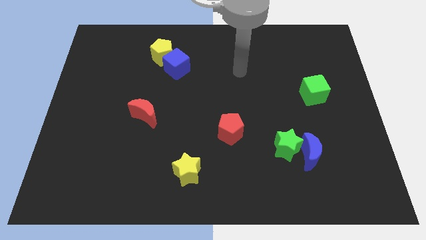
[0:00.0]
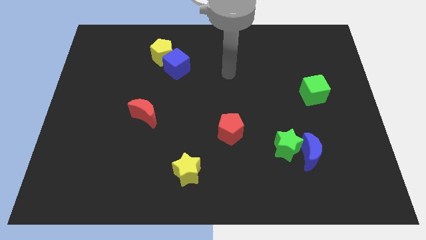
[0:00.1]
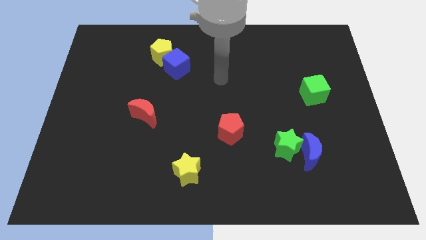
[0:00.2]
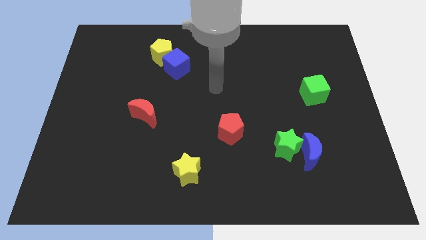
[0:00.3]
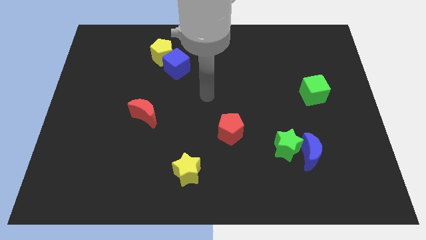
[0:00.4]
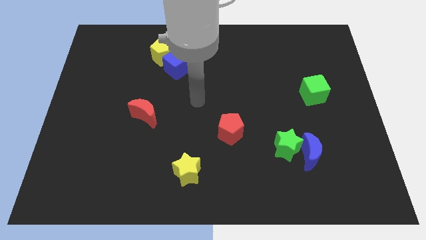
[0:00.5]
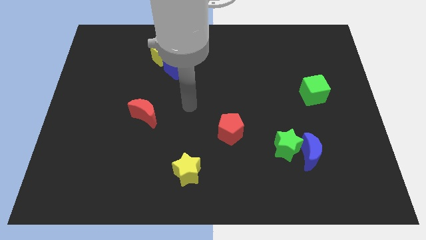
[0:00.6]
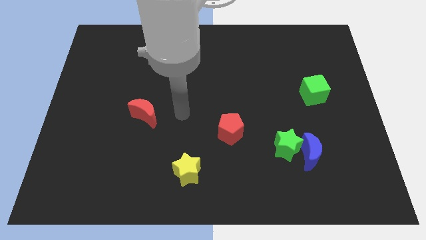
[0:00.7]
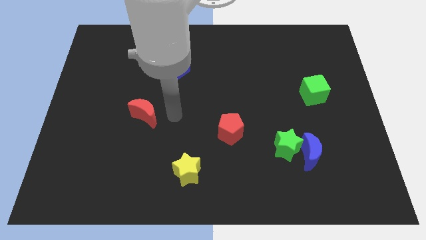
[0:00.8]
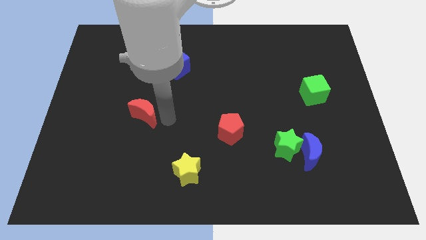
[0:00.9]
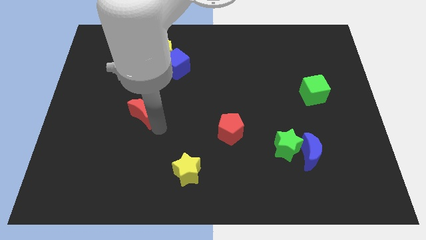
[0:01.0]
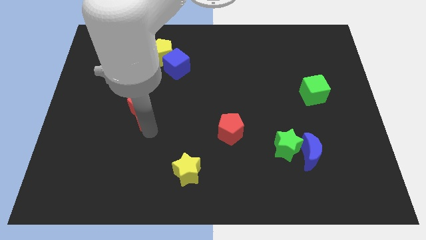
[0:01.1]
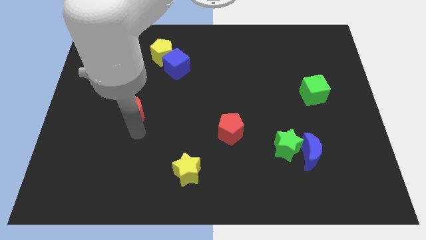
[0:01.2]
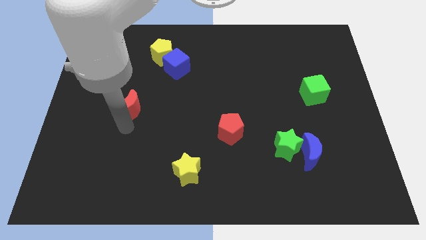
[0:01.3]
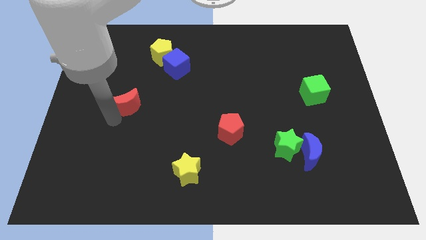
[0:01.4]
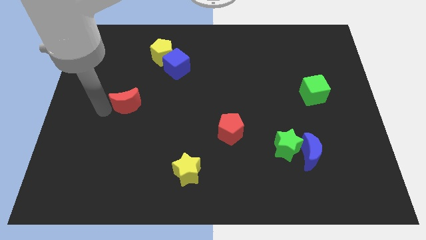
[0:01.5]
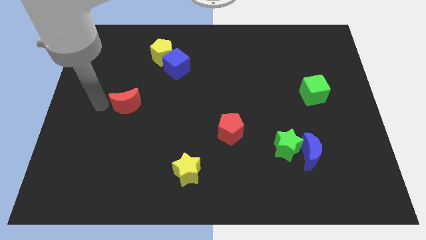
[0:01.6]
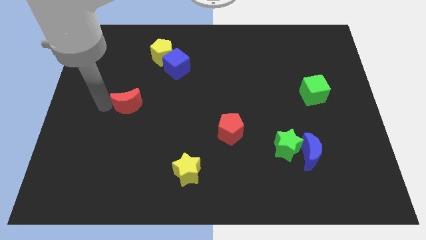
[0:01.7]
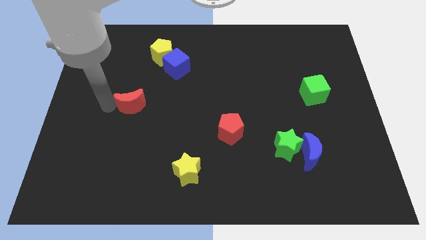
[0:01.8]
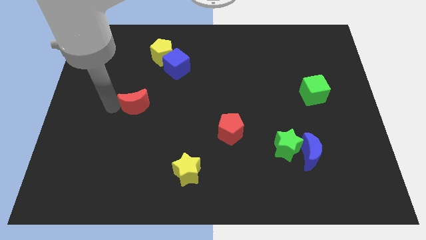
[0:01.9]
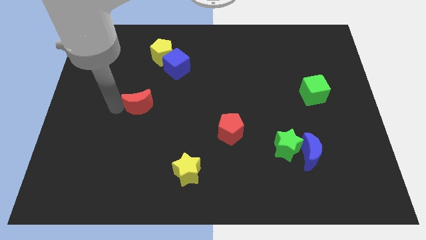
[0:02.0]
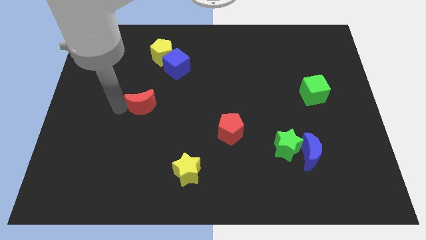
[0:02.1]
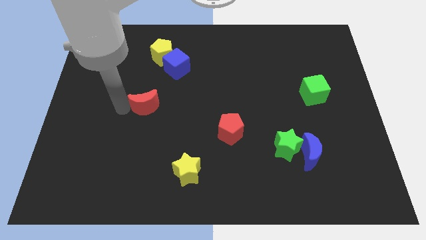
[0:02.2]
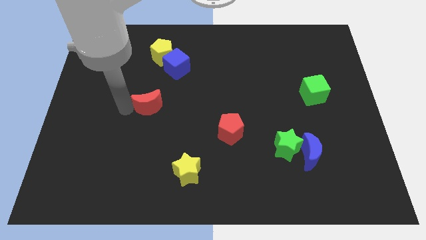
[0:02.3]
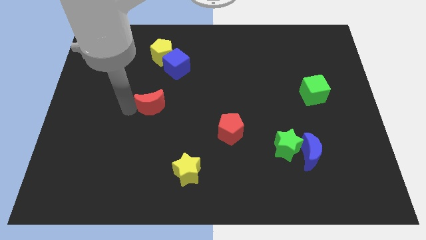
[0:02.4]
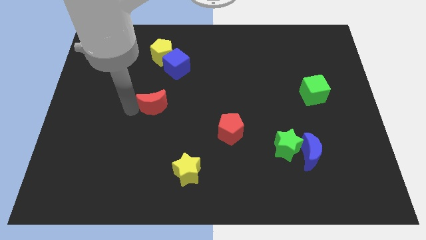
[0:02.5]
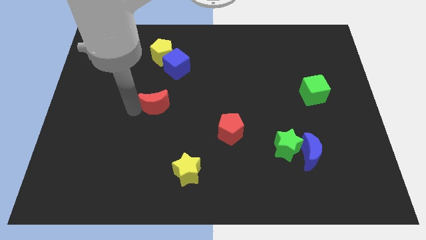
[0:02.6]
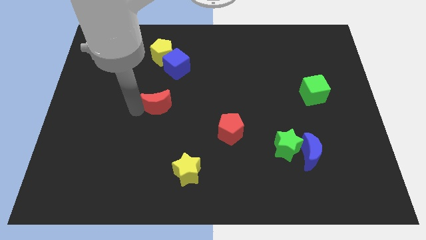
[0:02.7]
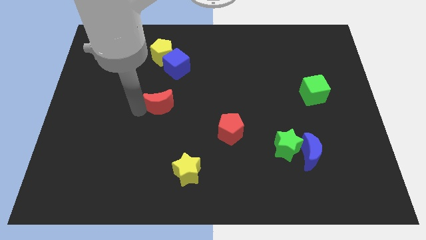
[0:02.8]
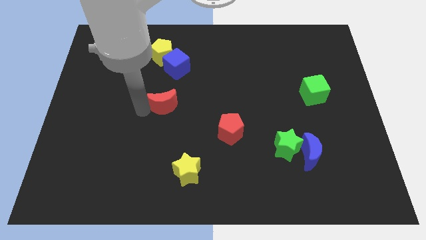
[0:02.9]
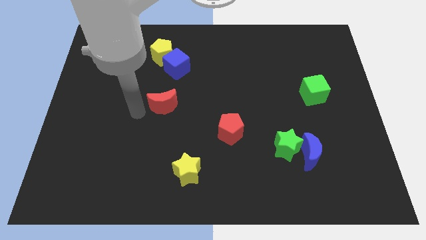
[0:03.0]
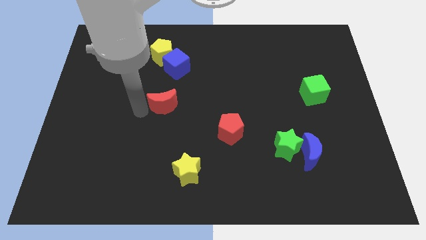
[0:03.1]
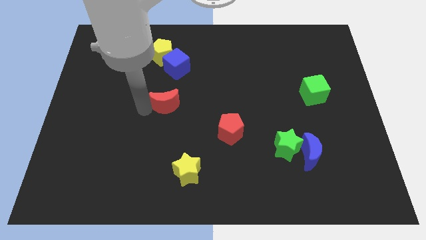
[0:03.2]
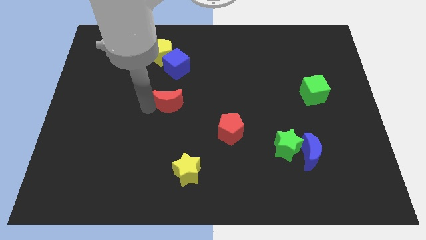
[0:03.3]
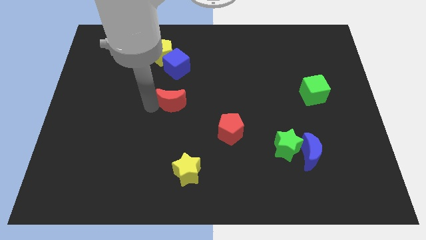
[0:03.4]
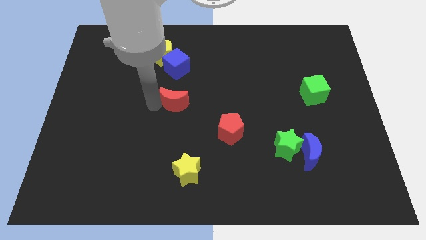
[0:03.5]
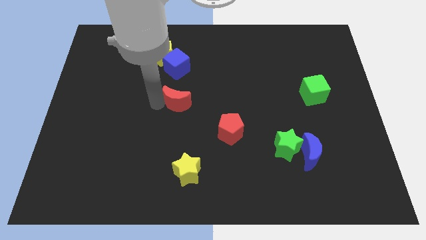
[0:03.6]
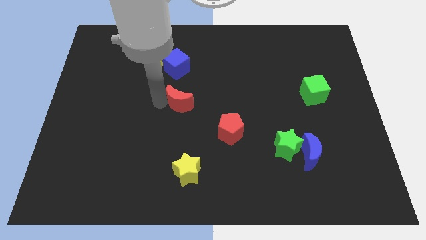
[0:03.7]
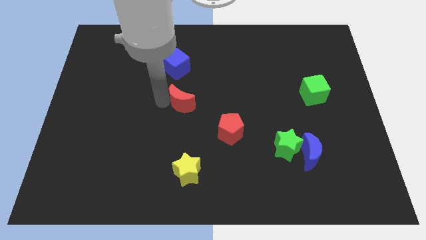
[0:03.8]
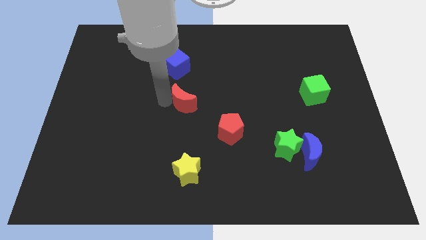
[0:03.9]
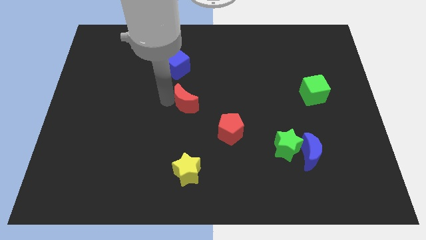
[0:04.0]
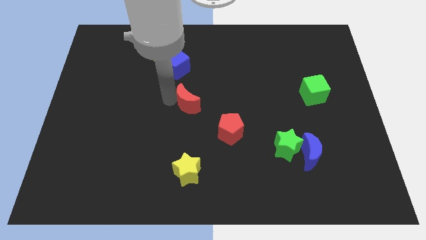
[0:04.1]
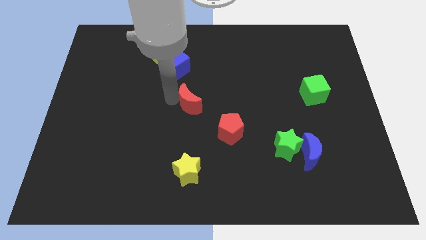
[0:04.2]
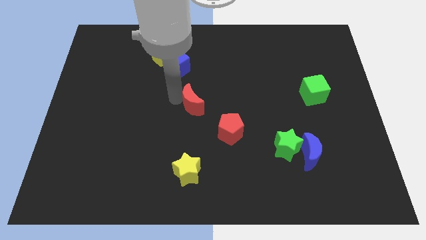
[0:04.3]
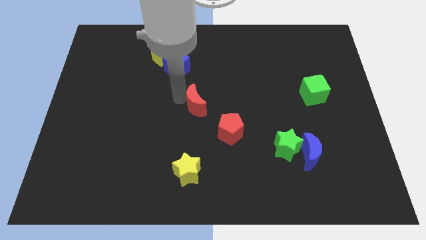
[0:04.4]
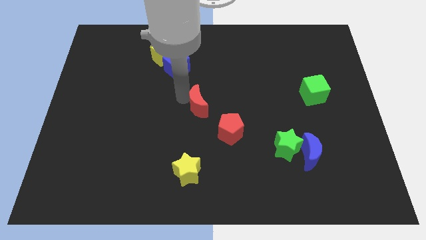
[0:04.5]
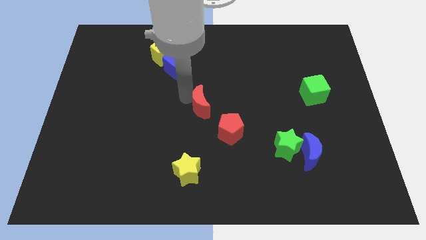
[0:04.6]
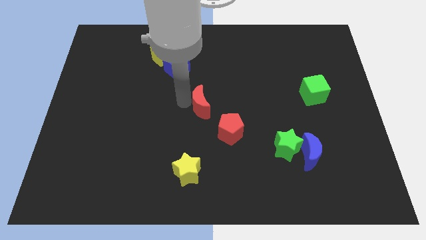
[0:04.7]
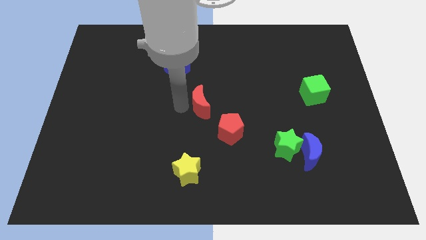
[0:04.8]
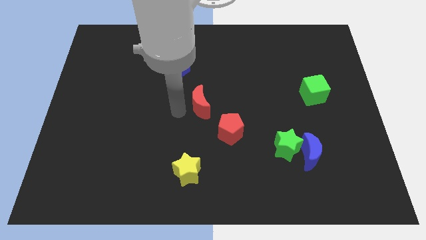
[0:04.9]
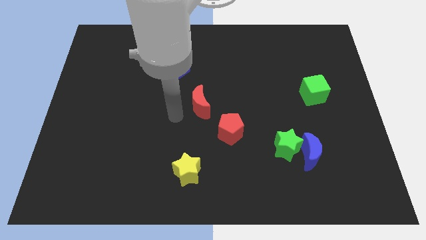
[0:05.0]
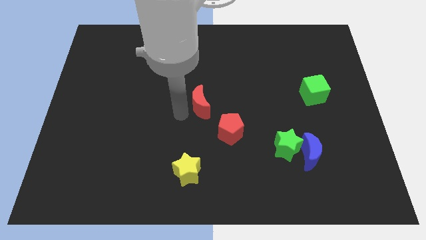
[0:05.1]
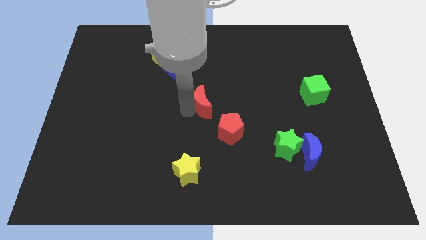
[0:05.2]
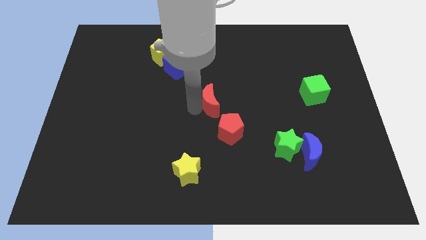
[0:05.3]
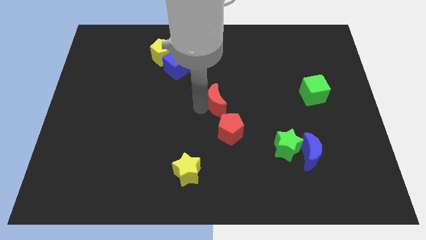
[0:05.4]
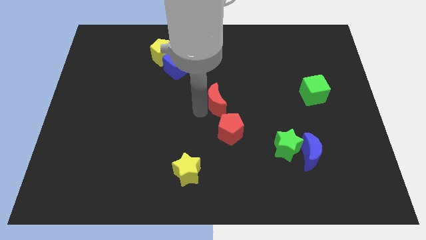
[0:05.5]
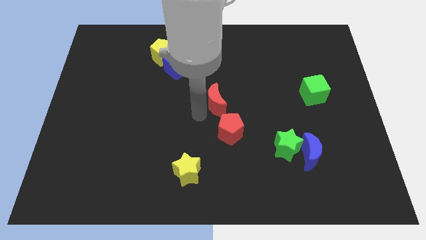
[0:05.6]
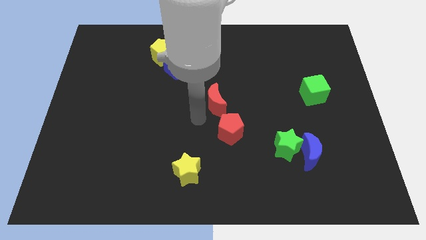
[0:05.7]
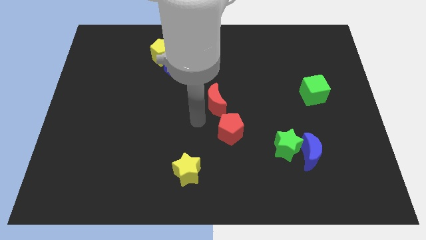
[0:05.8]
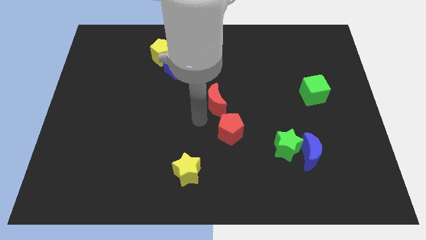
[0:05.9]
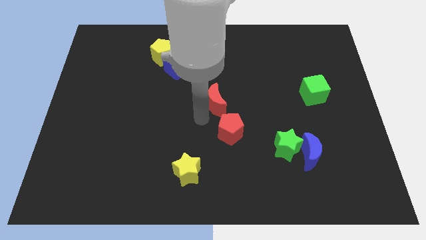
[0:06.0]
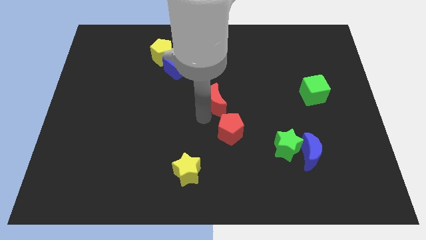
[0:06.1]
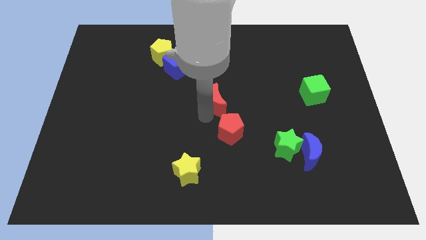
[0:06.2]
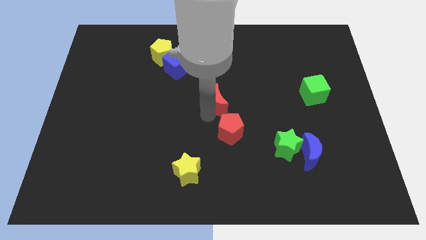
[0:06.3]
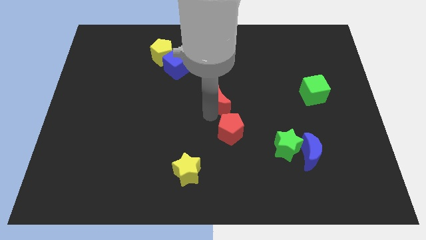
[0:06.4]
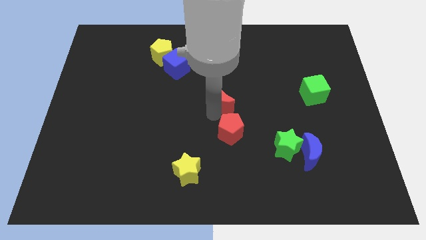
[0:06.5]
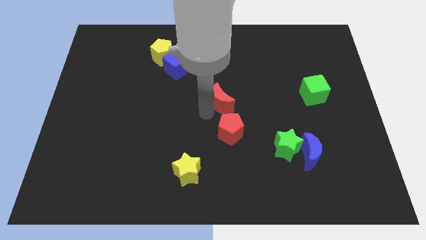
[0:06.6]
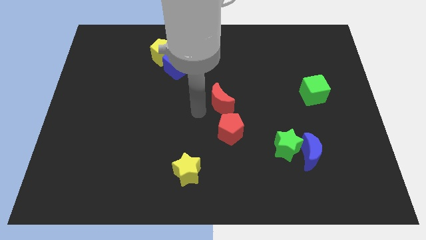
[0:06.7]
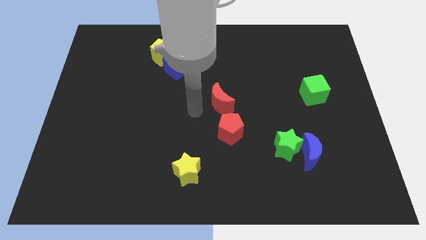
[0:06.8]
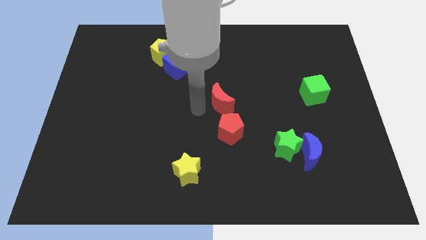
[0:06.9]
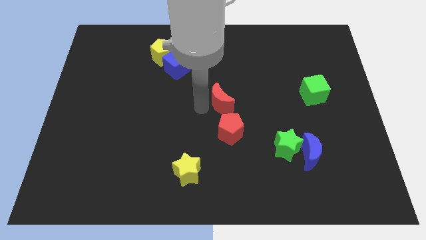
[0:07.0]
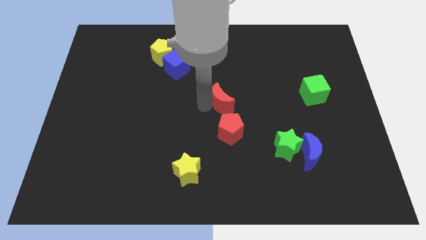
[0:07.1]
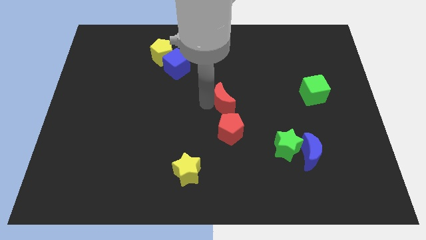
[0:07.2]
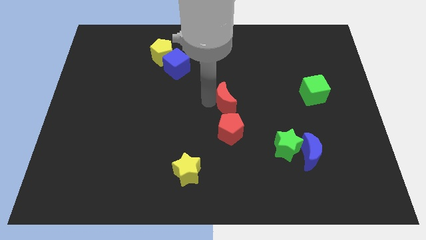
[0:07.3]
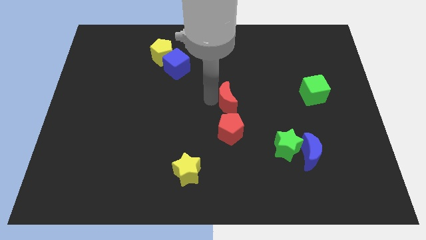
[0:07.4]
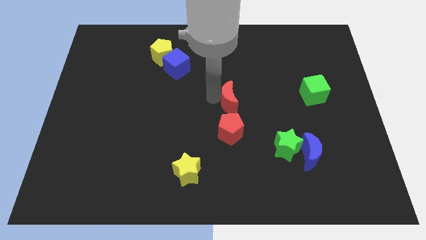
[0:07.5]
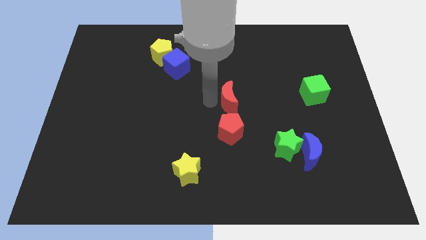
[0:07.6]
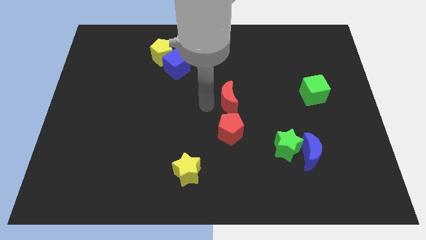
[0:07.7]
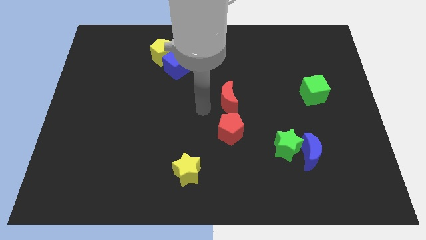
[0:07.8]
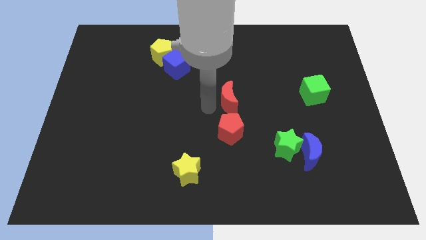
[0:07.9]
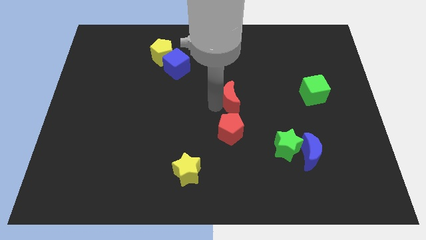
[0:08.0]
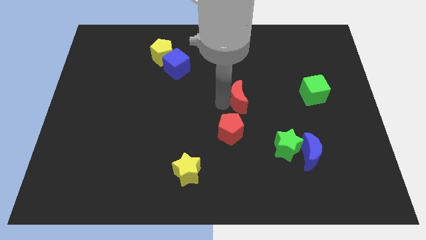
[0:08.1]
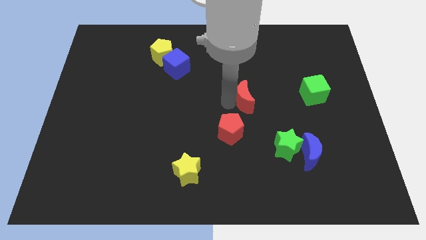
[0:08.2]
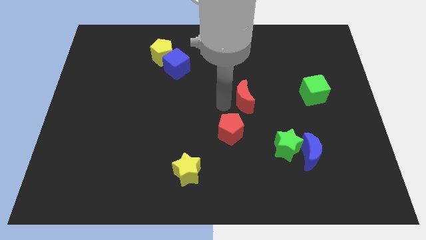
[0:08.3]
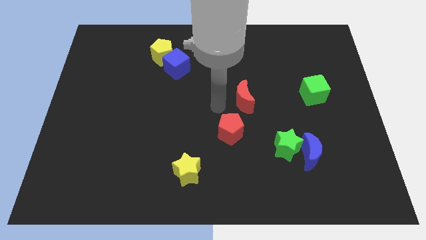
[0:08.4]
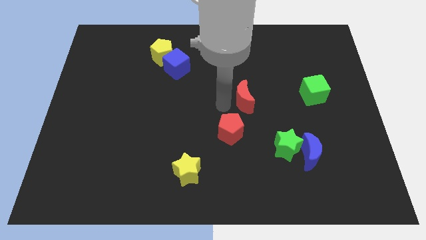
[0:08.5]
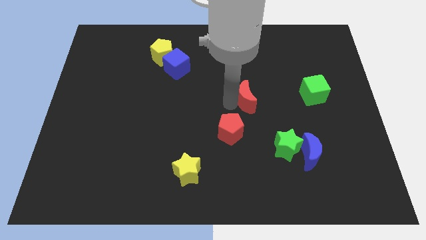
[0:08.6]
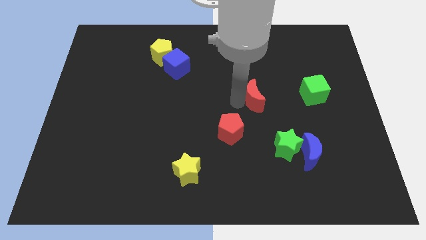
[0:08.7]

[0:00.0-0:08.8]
push the red moon to the left of the green cube
